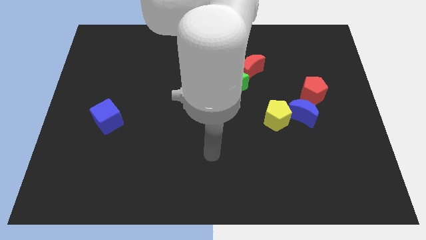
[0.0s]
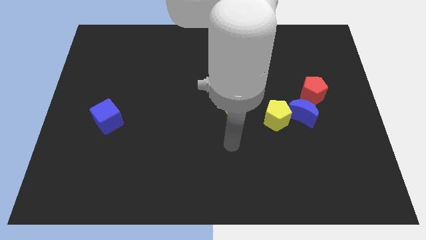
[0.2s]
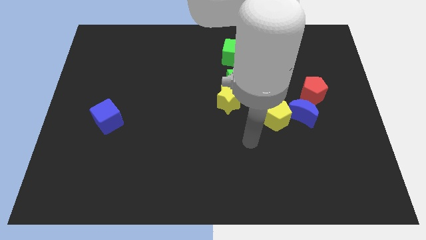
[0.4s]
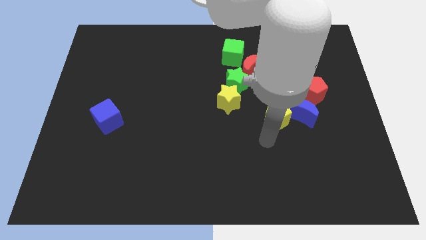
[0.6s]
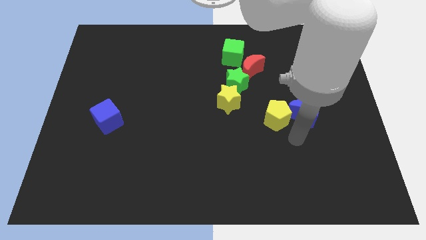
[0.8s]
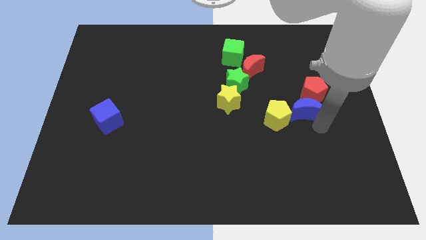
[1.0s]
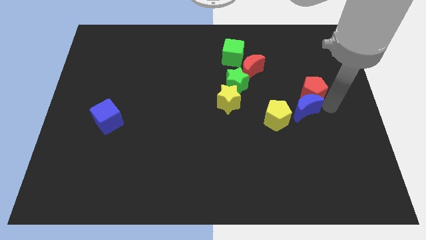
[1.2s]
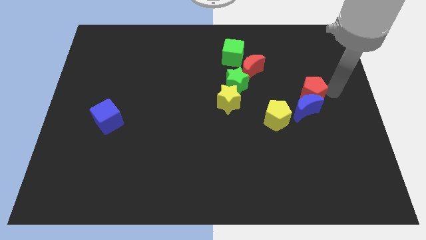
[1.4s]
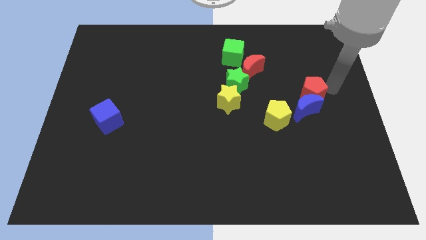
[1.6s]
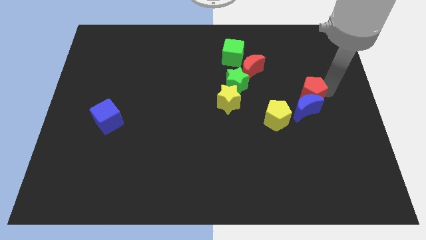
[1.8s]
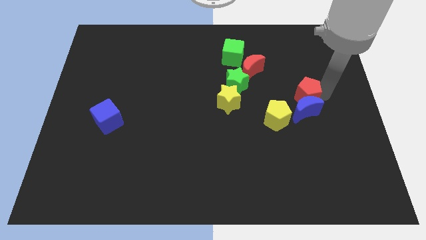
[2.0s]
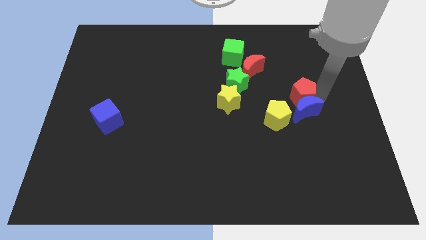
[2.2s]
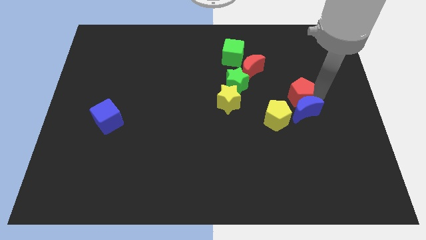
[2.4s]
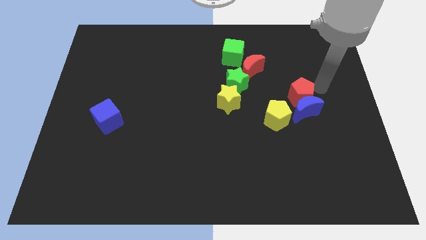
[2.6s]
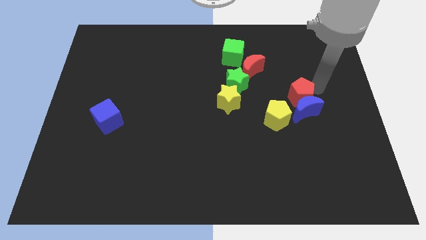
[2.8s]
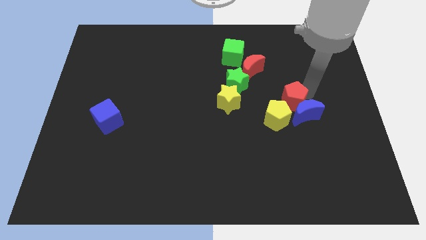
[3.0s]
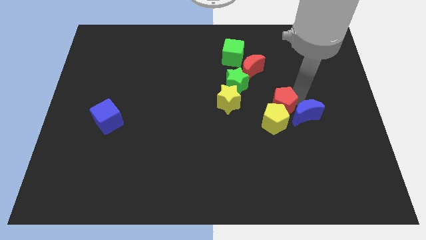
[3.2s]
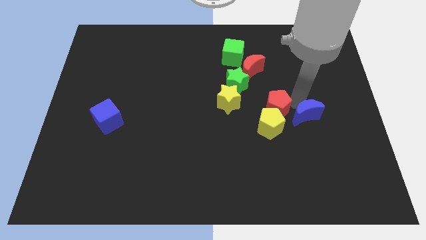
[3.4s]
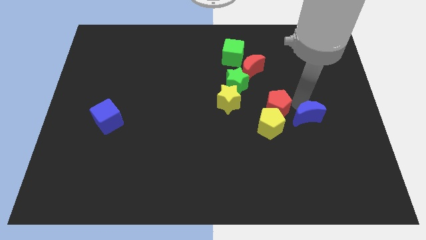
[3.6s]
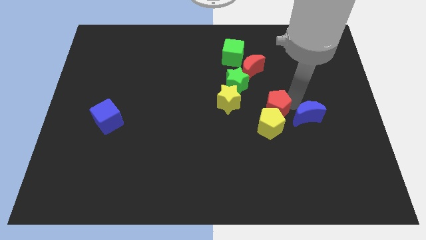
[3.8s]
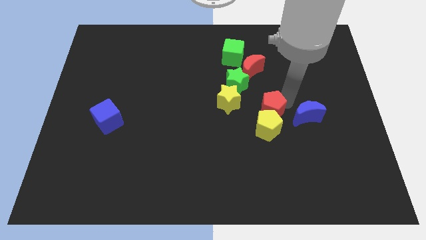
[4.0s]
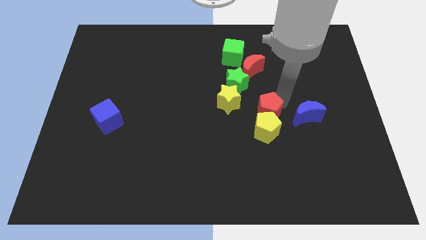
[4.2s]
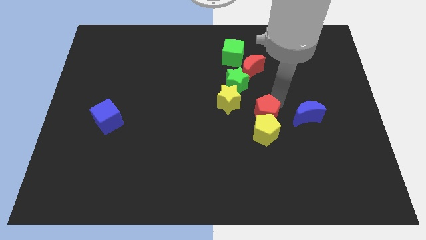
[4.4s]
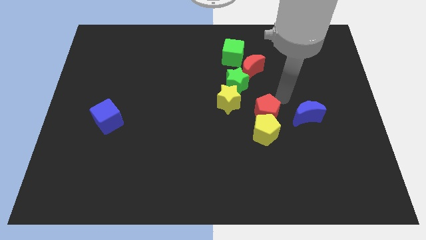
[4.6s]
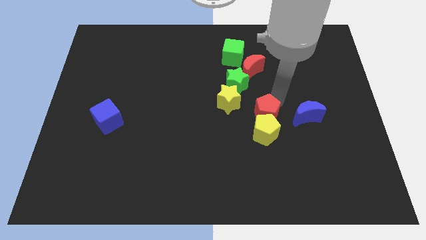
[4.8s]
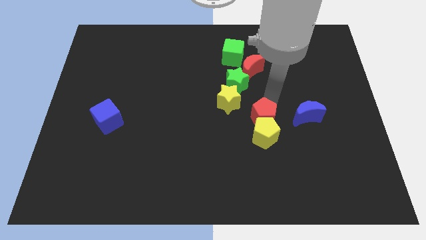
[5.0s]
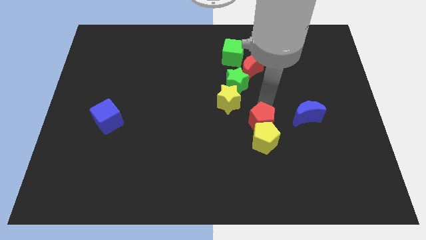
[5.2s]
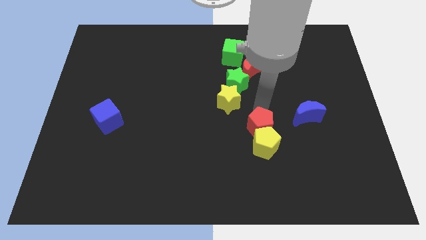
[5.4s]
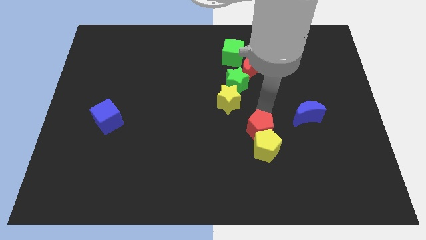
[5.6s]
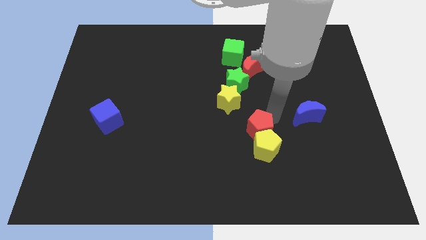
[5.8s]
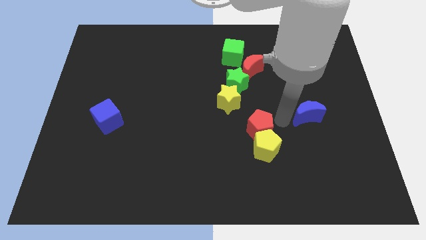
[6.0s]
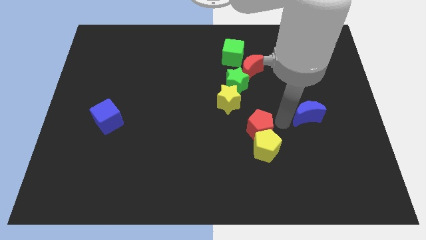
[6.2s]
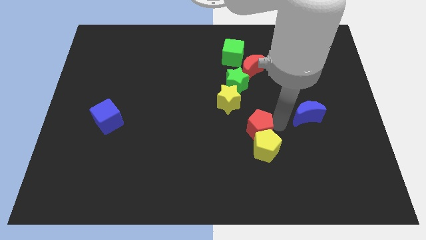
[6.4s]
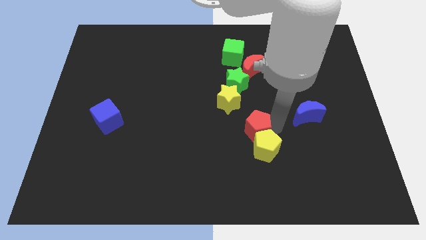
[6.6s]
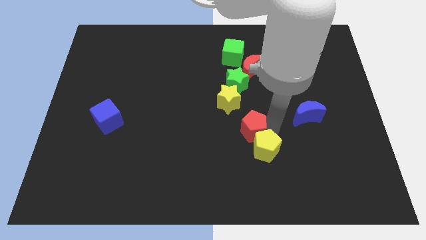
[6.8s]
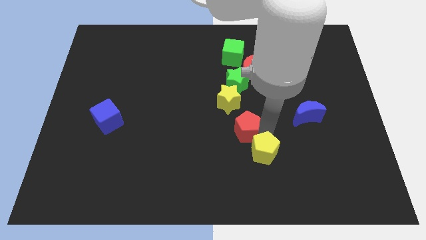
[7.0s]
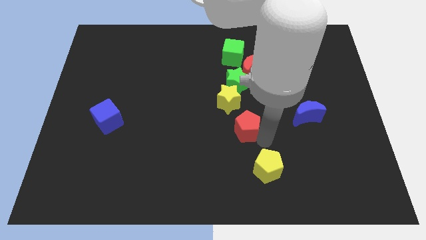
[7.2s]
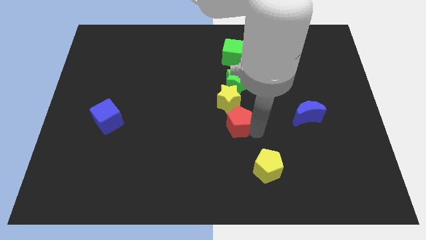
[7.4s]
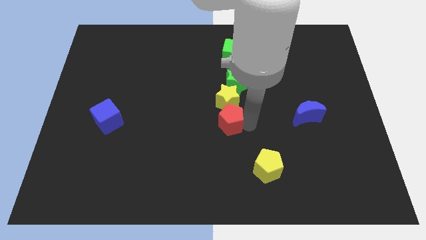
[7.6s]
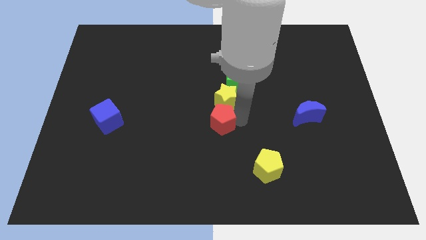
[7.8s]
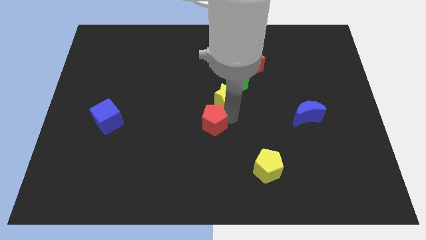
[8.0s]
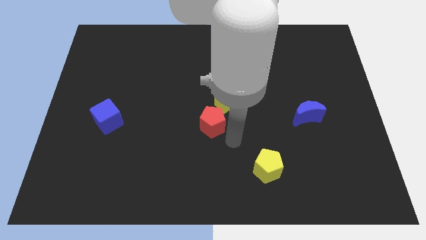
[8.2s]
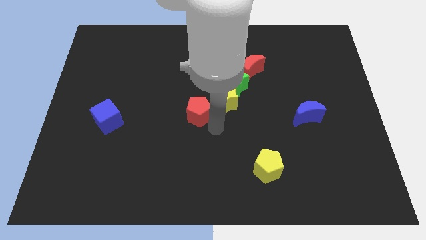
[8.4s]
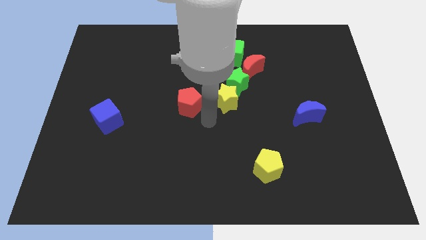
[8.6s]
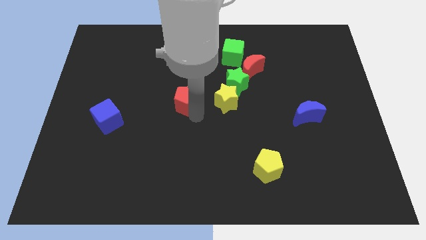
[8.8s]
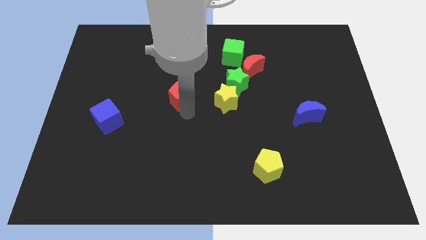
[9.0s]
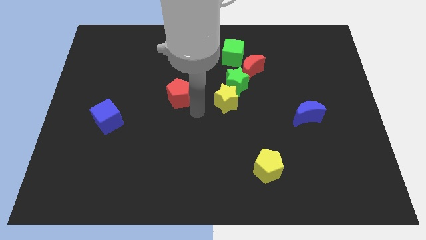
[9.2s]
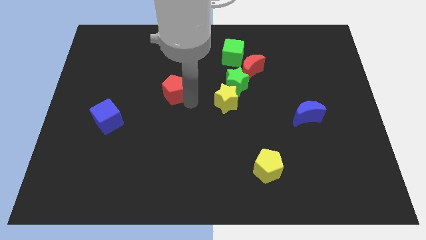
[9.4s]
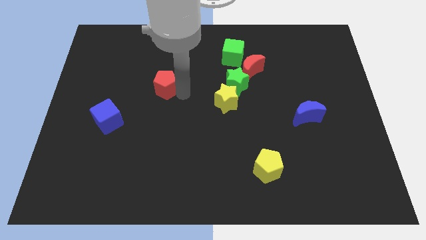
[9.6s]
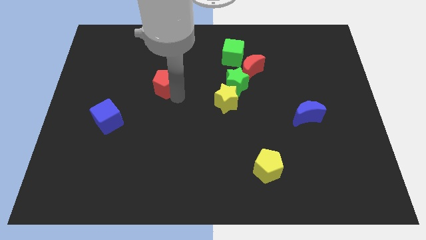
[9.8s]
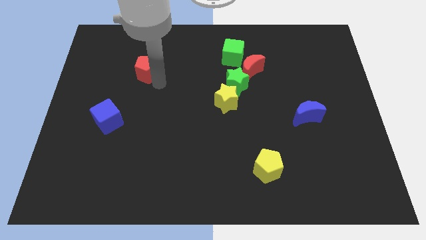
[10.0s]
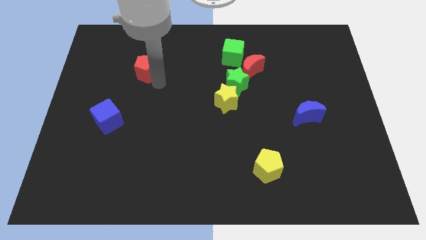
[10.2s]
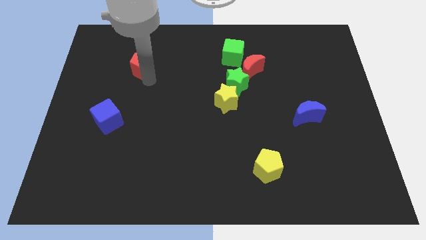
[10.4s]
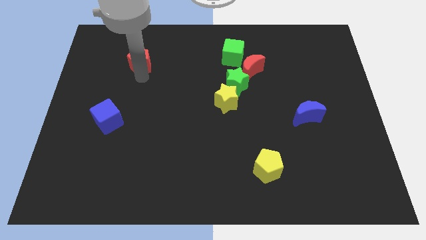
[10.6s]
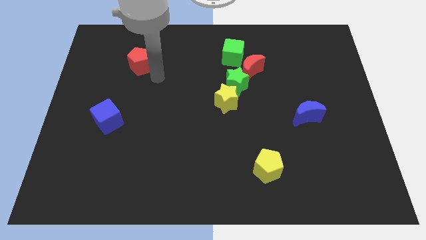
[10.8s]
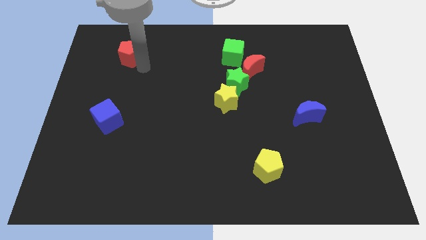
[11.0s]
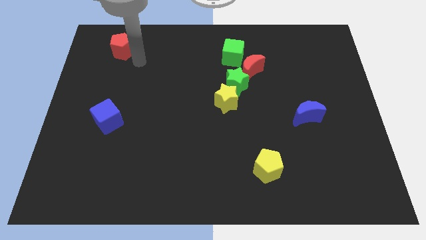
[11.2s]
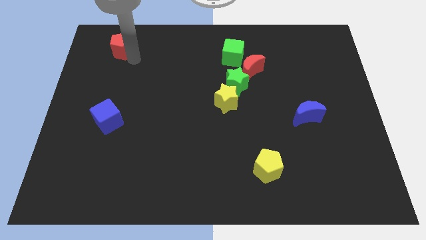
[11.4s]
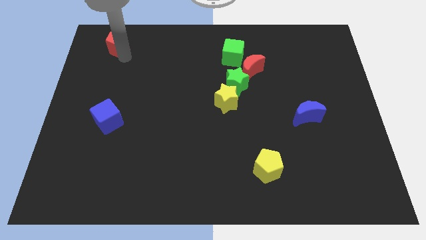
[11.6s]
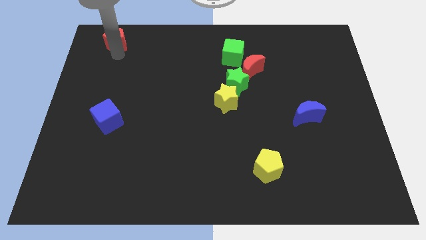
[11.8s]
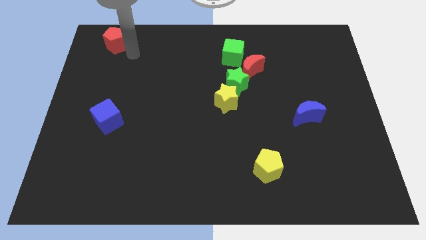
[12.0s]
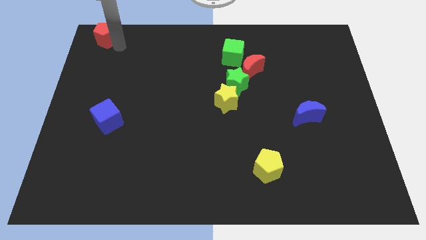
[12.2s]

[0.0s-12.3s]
put the red pentagon to the top left of the board

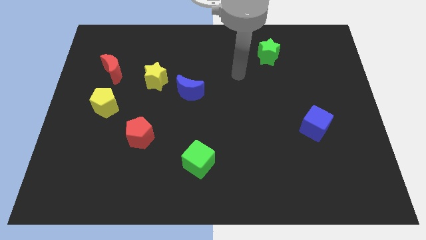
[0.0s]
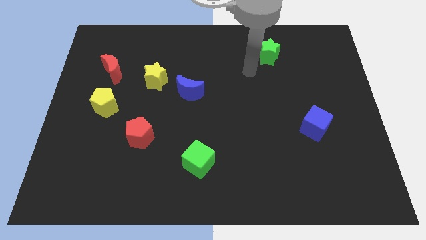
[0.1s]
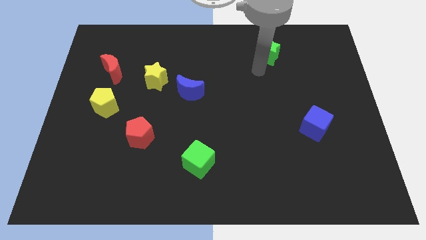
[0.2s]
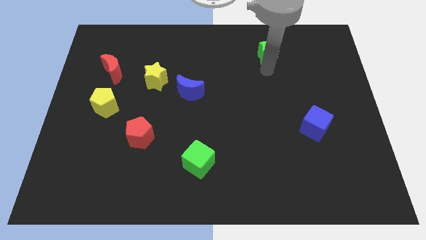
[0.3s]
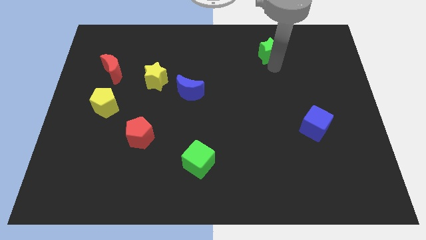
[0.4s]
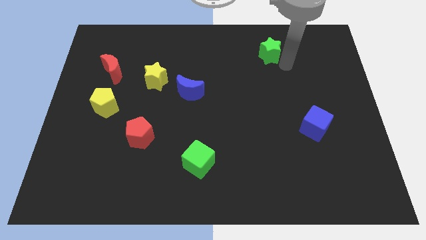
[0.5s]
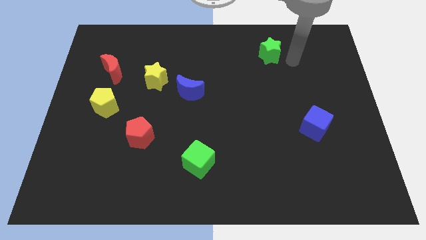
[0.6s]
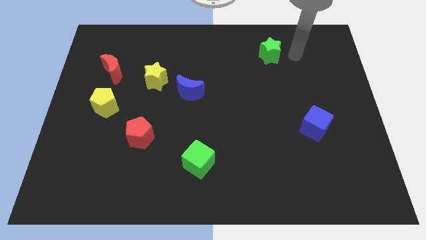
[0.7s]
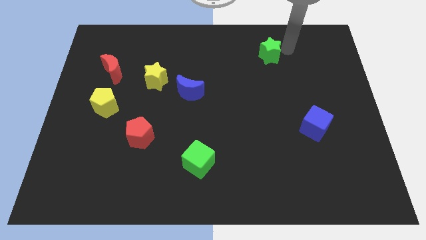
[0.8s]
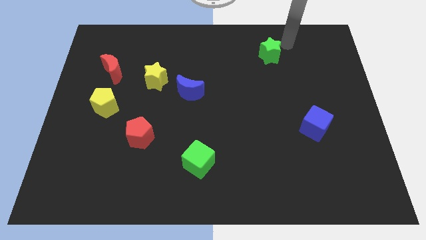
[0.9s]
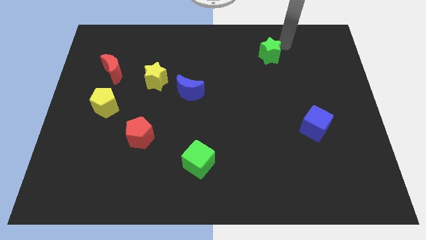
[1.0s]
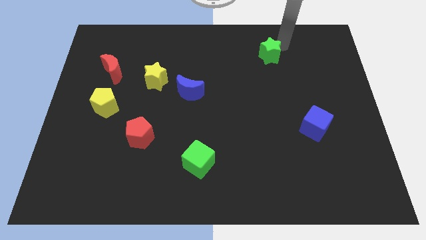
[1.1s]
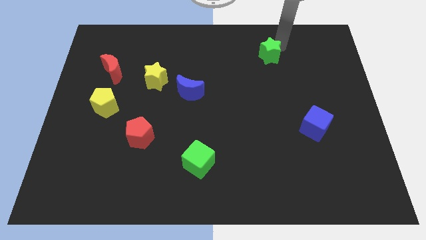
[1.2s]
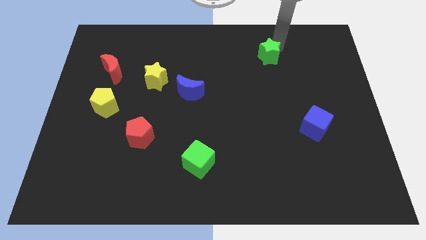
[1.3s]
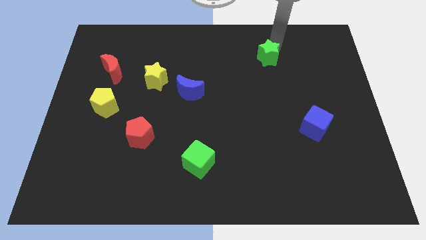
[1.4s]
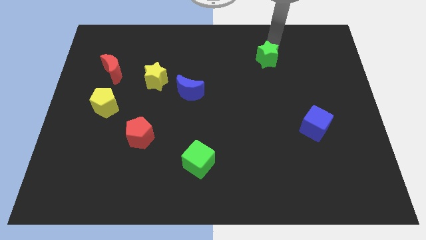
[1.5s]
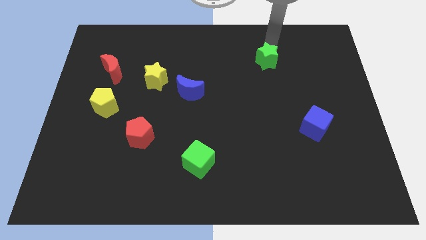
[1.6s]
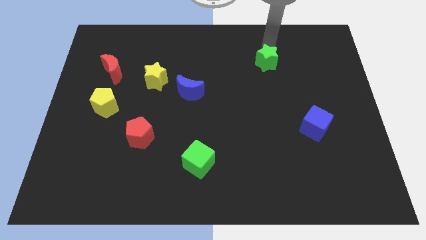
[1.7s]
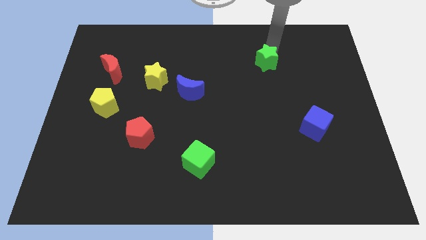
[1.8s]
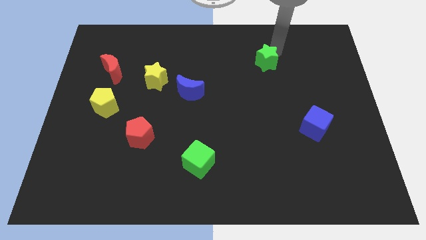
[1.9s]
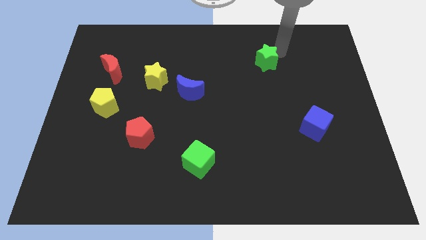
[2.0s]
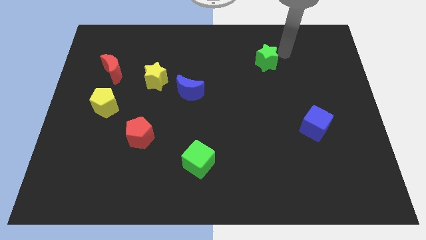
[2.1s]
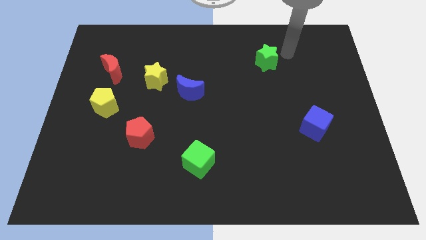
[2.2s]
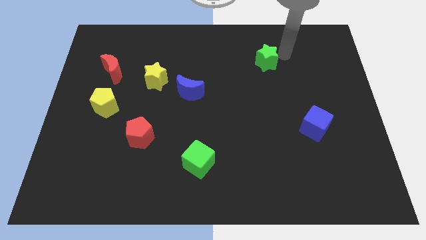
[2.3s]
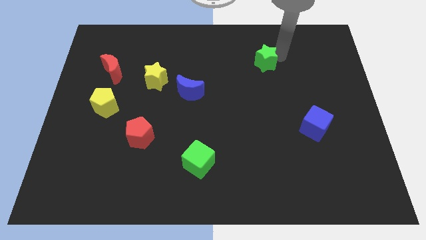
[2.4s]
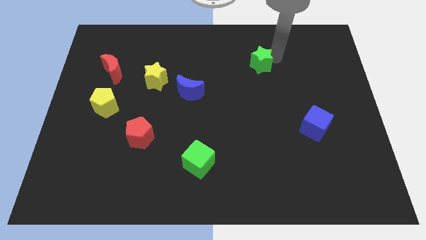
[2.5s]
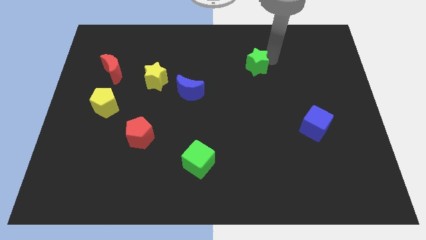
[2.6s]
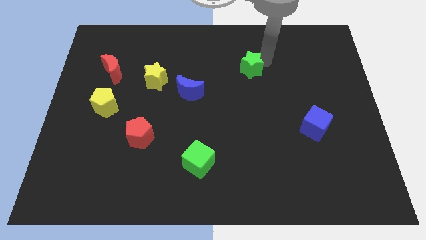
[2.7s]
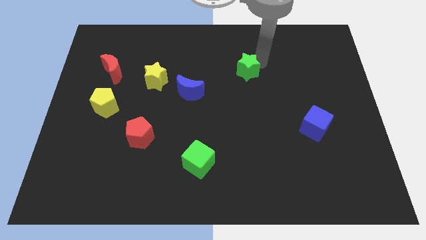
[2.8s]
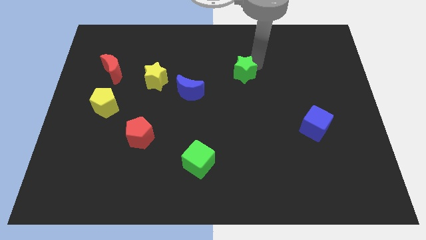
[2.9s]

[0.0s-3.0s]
push the green star to the middle
